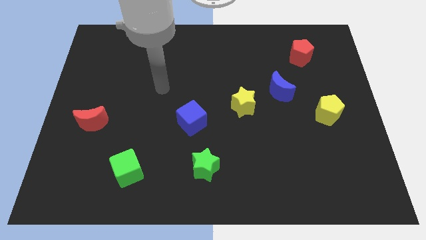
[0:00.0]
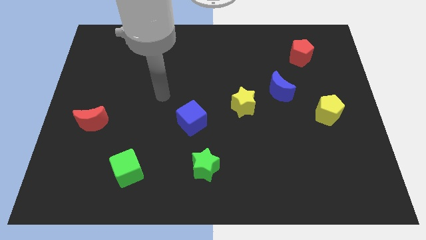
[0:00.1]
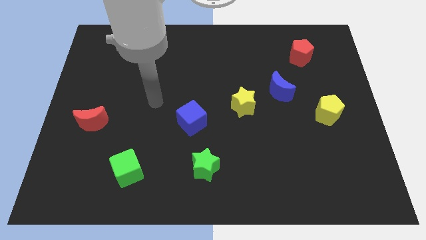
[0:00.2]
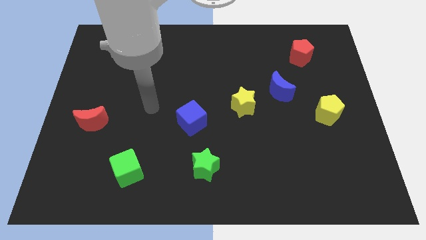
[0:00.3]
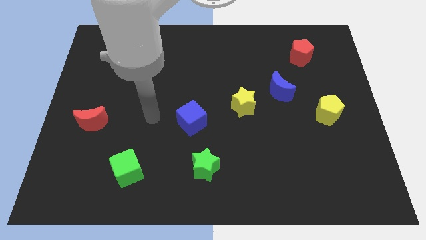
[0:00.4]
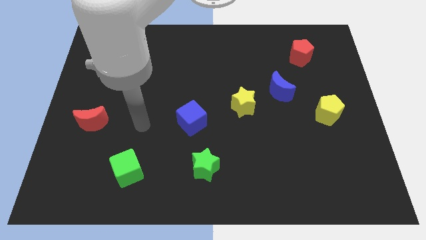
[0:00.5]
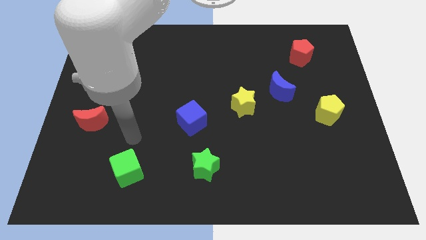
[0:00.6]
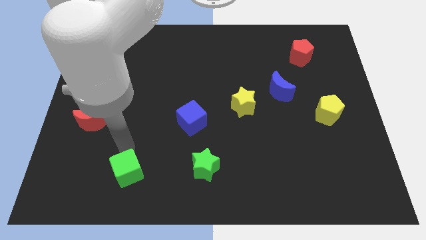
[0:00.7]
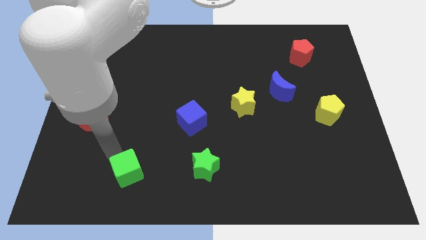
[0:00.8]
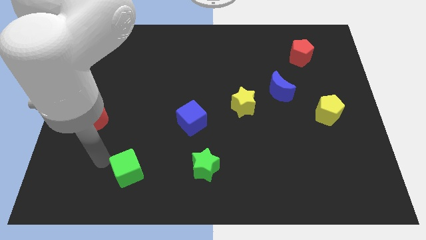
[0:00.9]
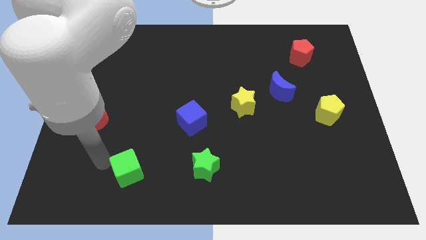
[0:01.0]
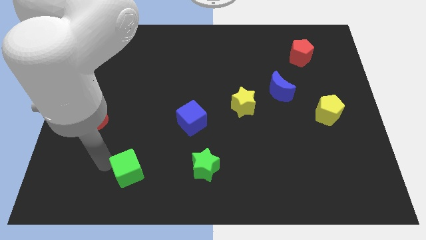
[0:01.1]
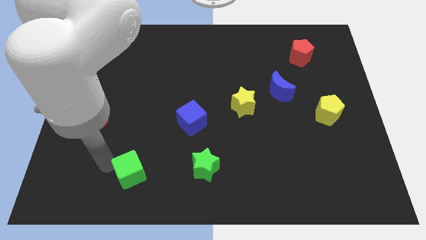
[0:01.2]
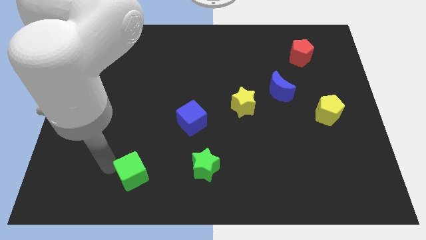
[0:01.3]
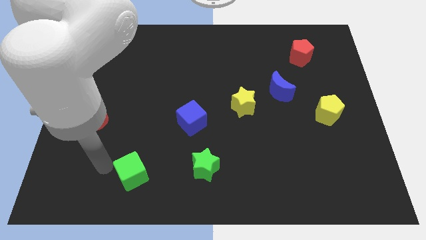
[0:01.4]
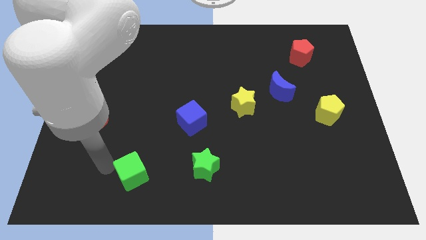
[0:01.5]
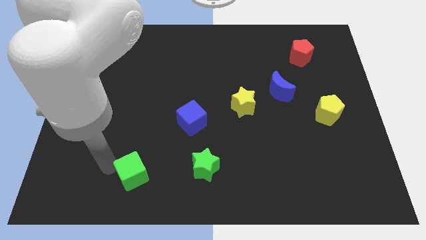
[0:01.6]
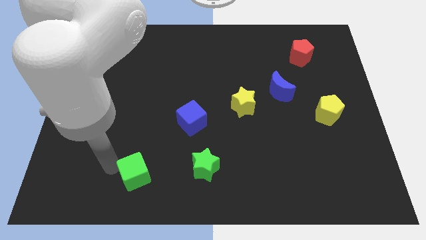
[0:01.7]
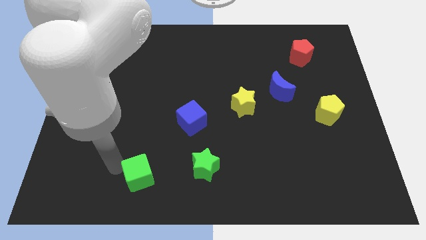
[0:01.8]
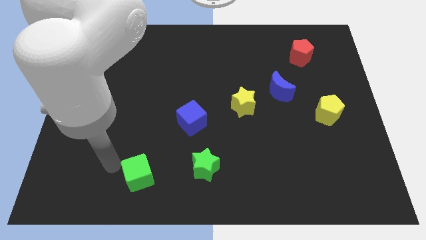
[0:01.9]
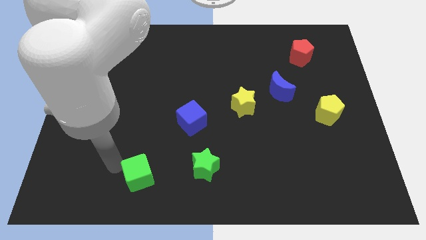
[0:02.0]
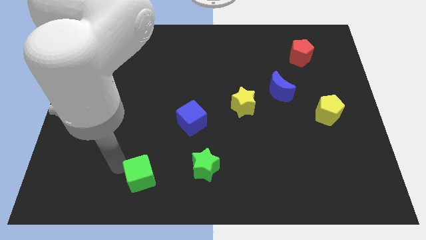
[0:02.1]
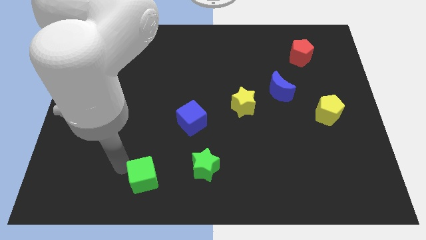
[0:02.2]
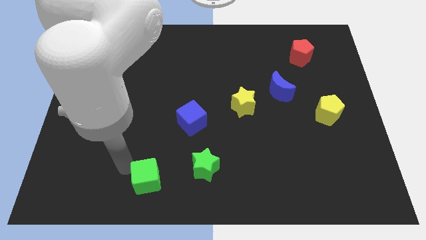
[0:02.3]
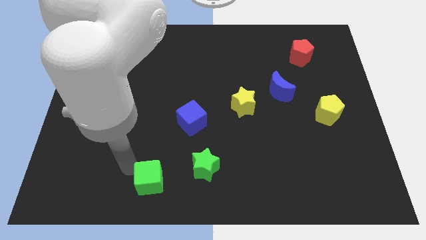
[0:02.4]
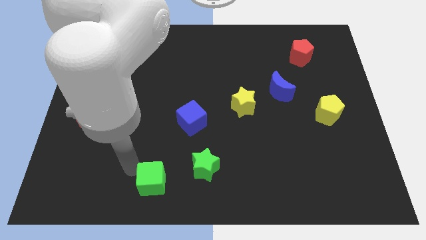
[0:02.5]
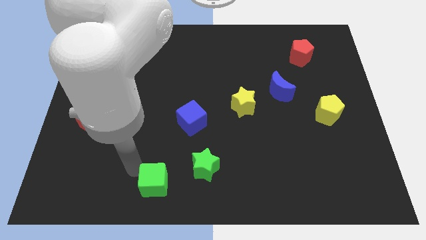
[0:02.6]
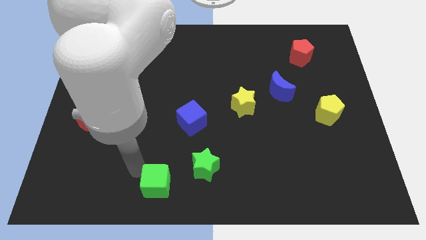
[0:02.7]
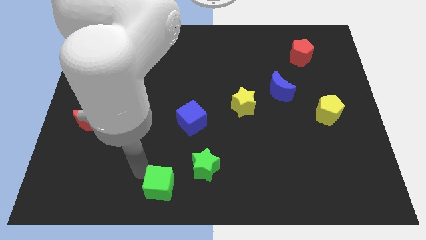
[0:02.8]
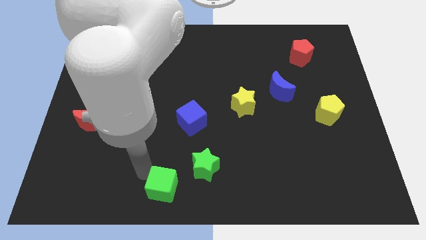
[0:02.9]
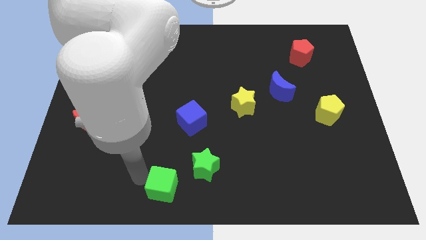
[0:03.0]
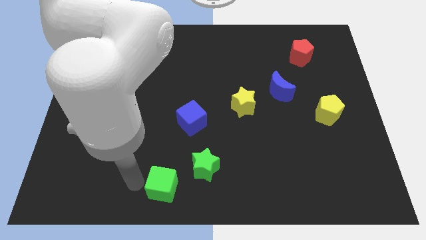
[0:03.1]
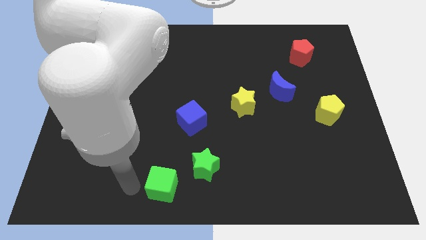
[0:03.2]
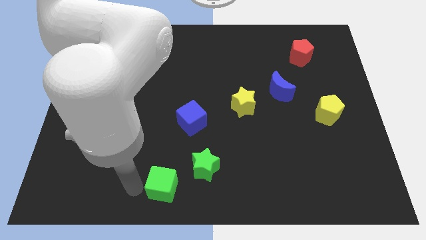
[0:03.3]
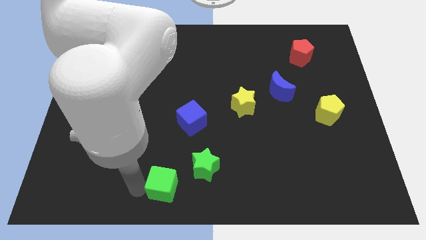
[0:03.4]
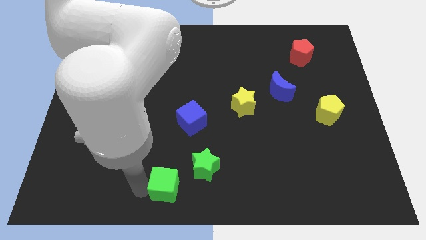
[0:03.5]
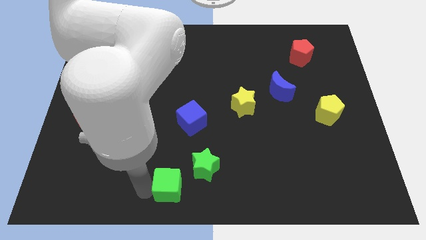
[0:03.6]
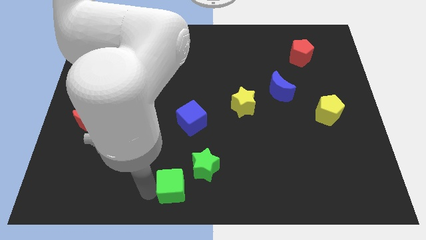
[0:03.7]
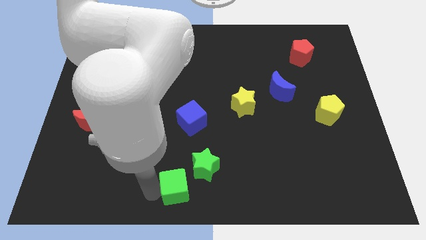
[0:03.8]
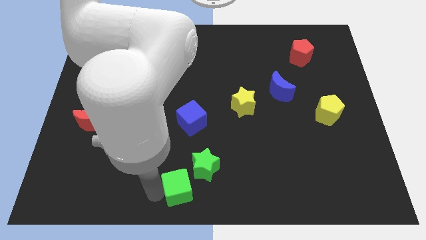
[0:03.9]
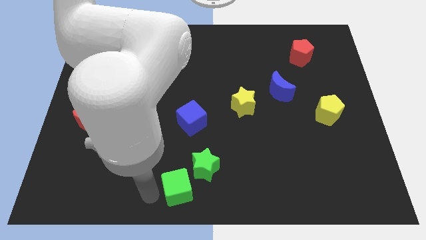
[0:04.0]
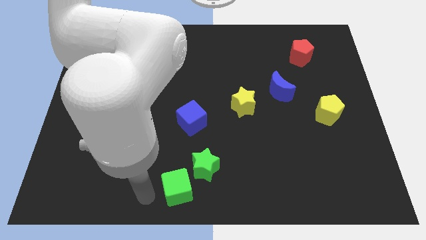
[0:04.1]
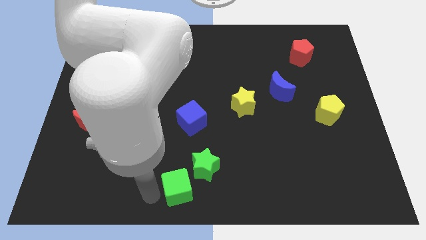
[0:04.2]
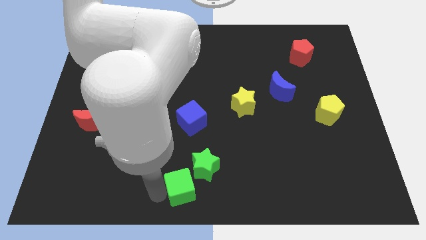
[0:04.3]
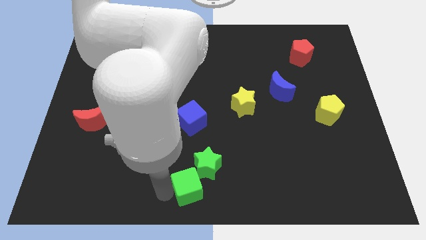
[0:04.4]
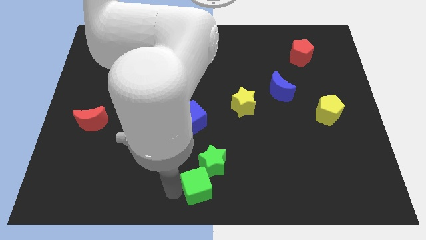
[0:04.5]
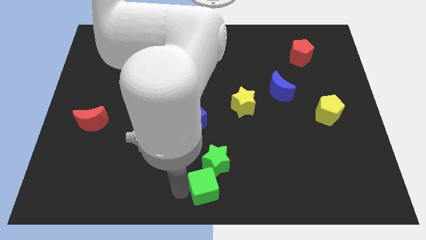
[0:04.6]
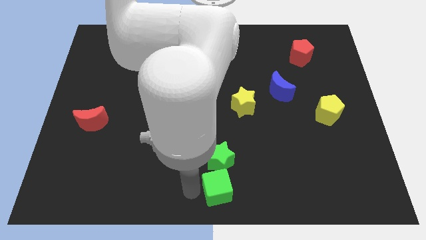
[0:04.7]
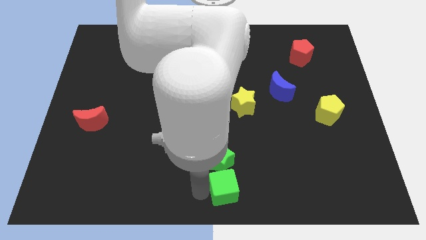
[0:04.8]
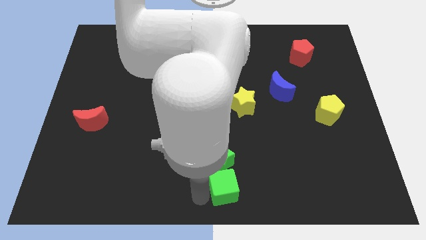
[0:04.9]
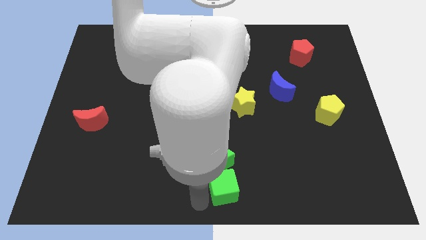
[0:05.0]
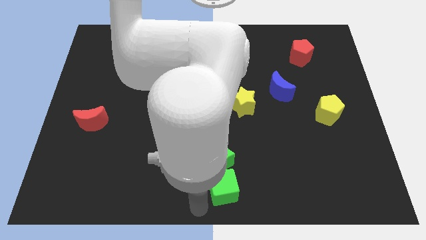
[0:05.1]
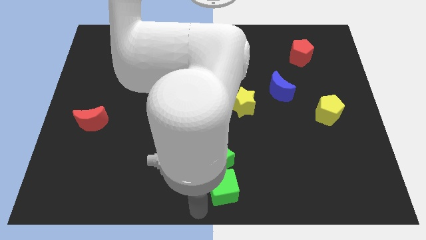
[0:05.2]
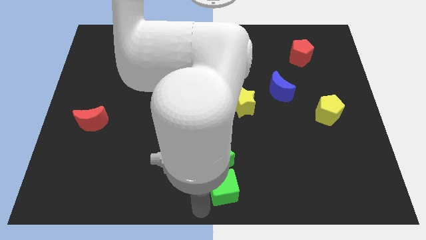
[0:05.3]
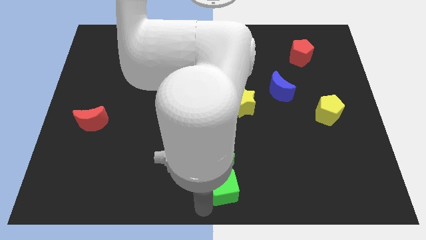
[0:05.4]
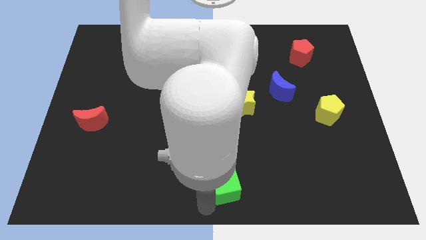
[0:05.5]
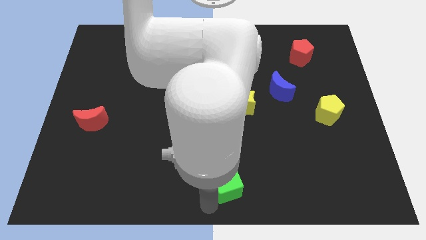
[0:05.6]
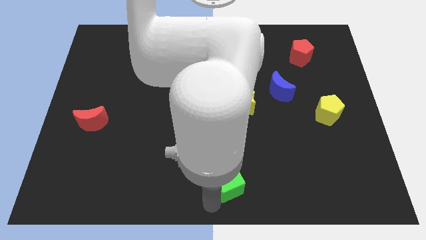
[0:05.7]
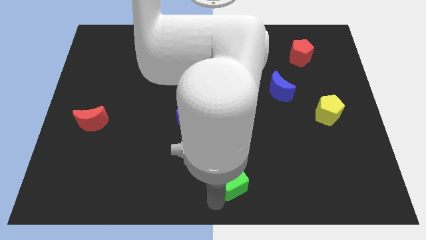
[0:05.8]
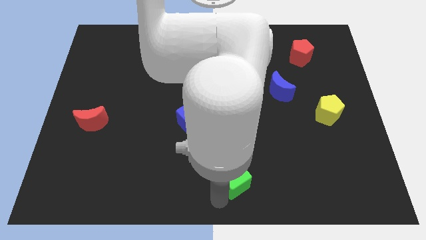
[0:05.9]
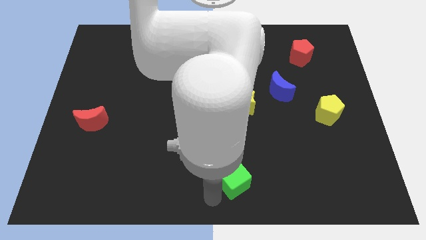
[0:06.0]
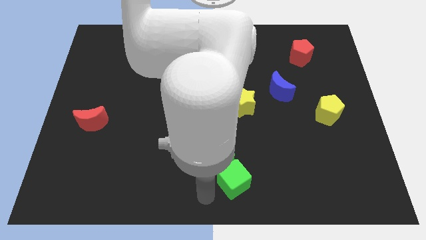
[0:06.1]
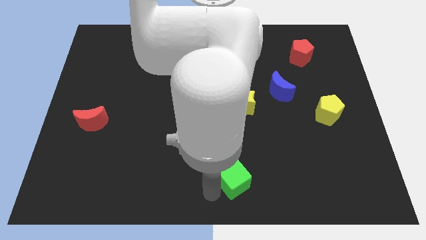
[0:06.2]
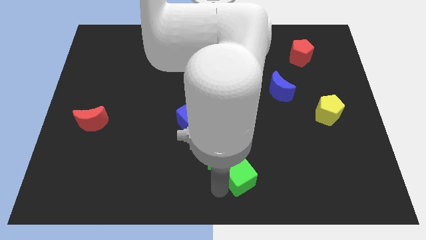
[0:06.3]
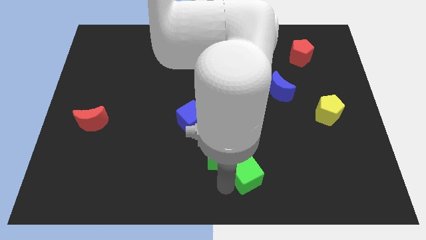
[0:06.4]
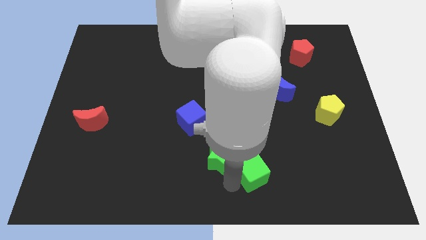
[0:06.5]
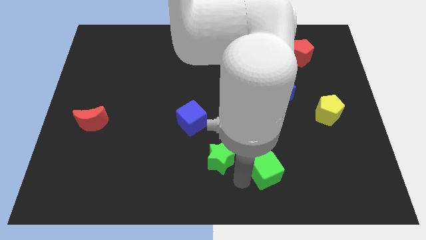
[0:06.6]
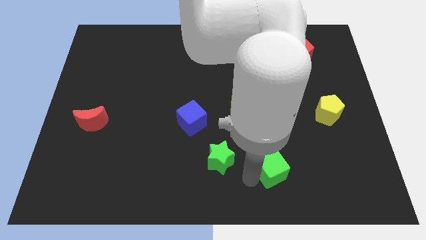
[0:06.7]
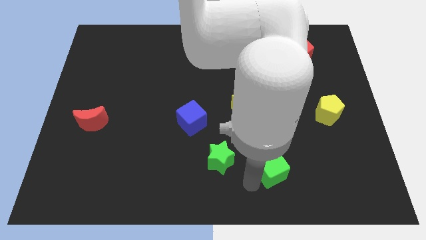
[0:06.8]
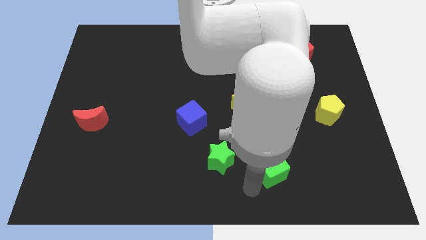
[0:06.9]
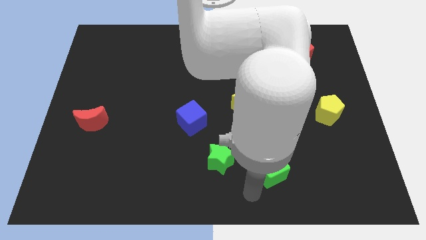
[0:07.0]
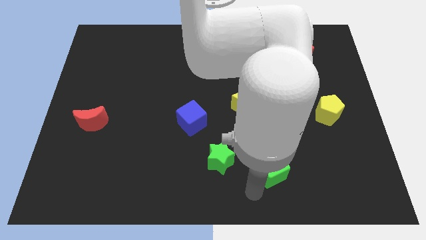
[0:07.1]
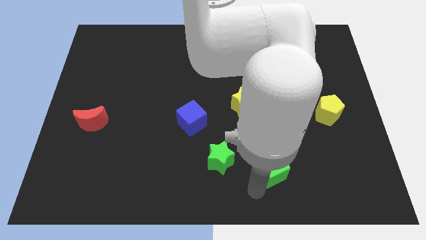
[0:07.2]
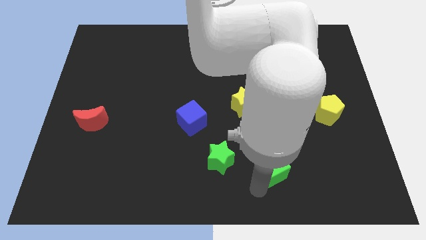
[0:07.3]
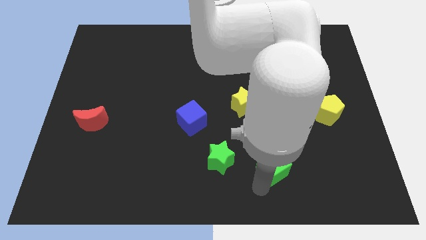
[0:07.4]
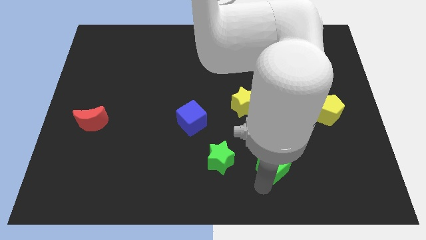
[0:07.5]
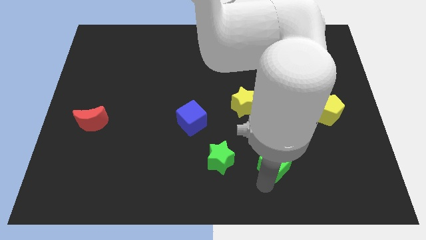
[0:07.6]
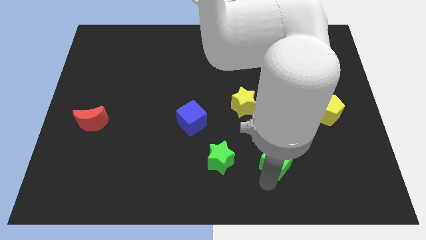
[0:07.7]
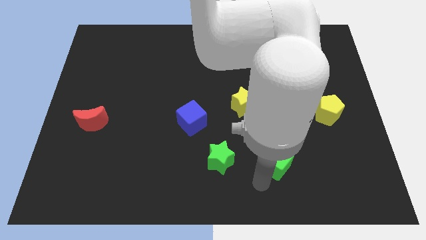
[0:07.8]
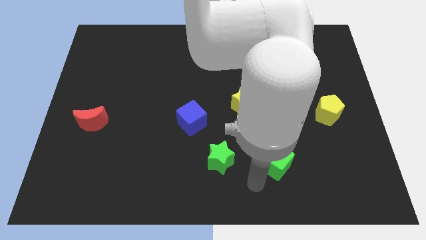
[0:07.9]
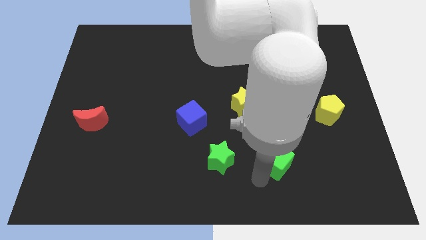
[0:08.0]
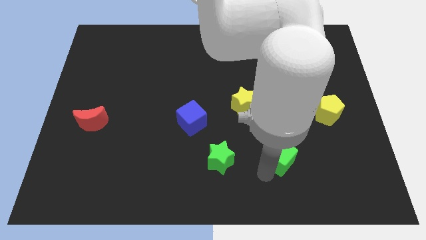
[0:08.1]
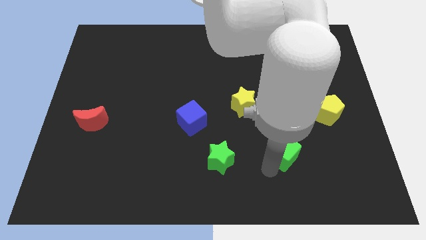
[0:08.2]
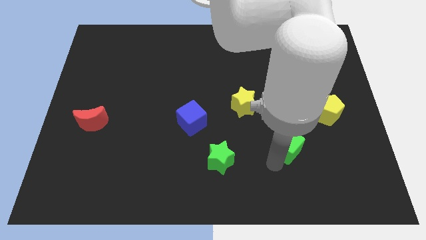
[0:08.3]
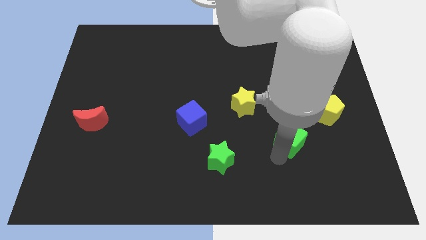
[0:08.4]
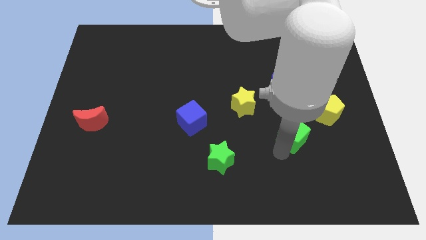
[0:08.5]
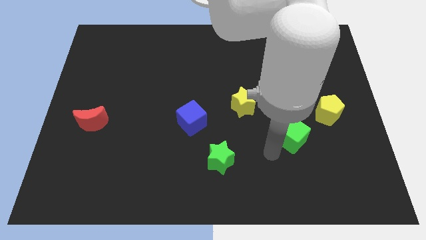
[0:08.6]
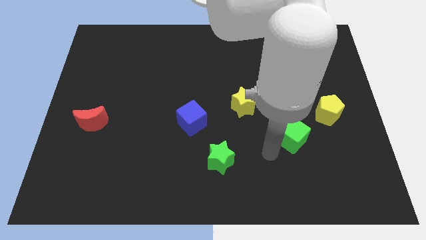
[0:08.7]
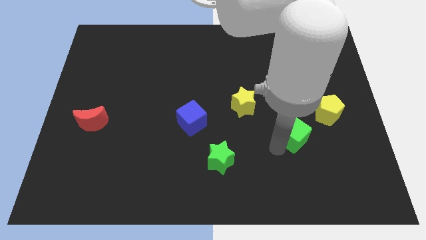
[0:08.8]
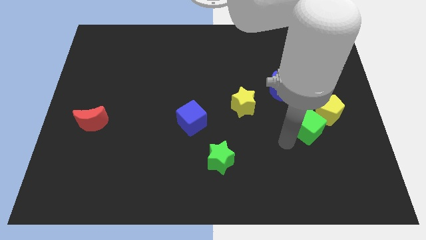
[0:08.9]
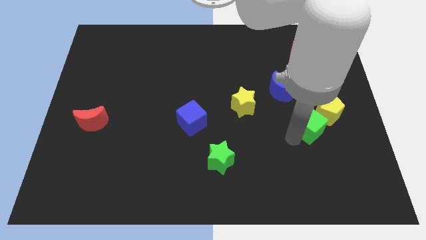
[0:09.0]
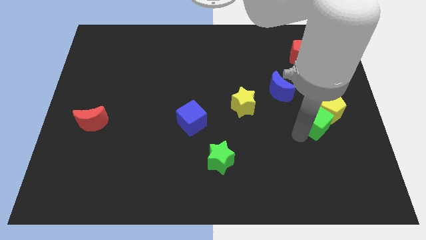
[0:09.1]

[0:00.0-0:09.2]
slide the green cube next to the yellow pentagon
